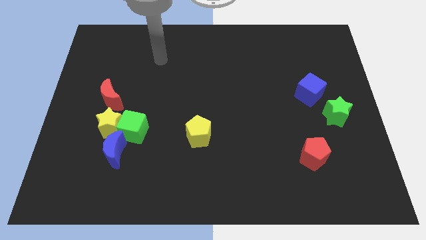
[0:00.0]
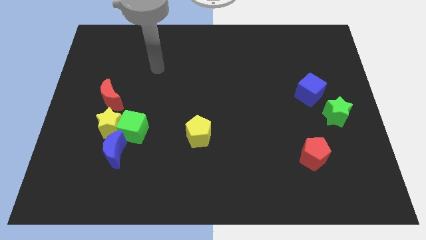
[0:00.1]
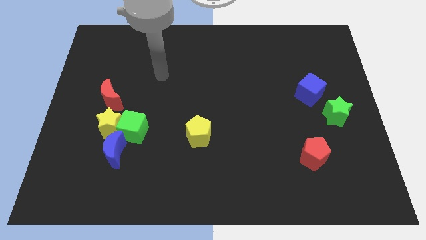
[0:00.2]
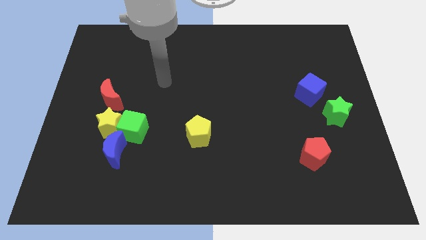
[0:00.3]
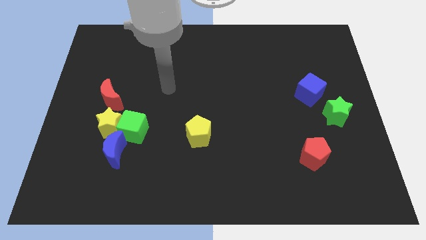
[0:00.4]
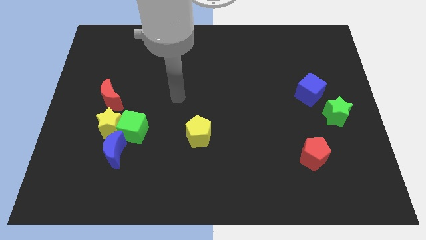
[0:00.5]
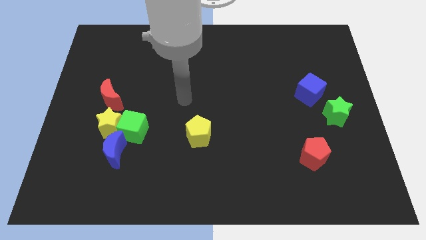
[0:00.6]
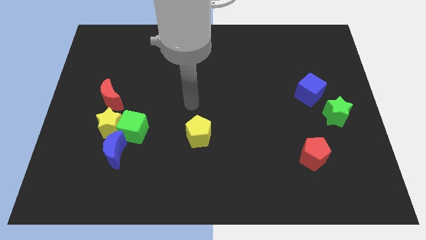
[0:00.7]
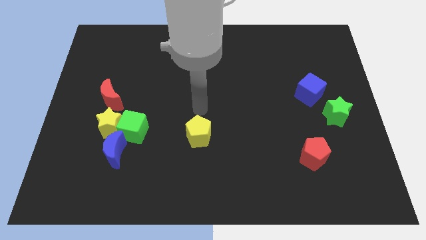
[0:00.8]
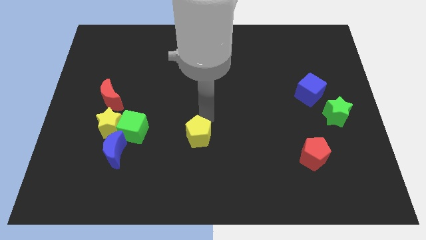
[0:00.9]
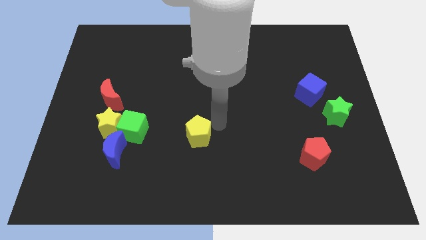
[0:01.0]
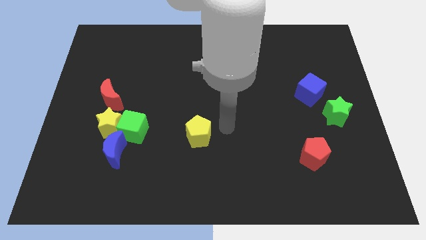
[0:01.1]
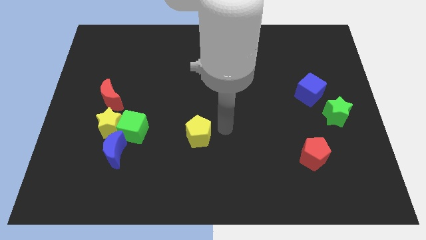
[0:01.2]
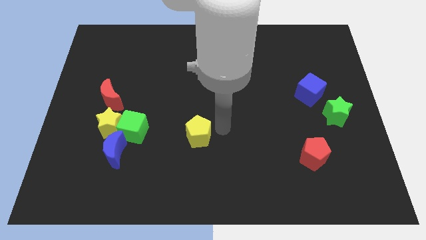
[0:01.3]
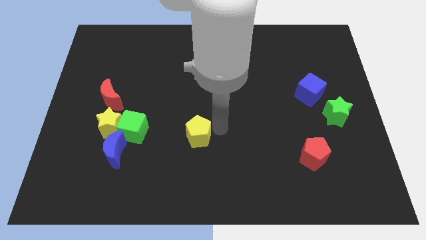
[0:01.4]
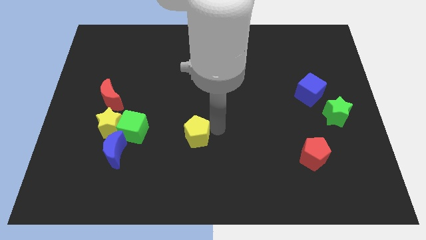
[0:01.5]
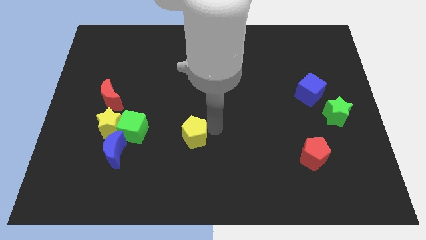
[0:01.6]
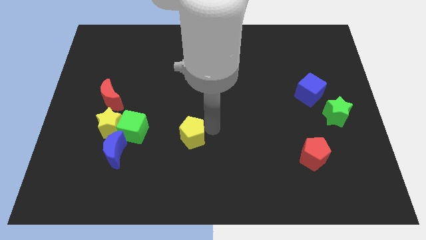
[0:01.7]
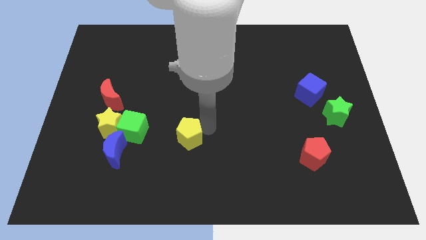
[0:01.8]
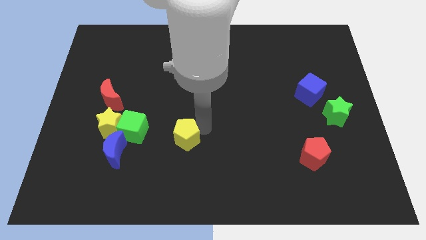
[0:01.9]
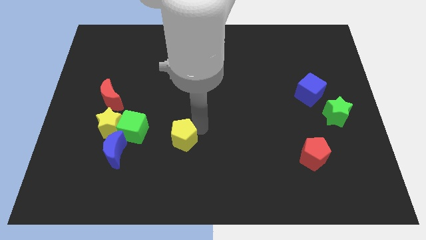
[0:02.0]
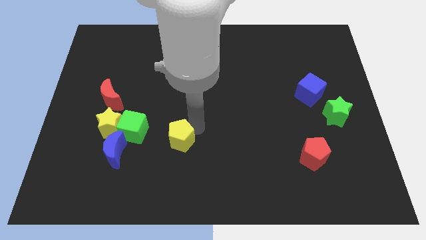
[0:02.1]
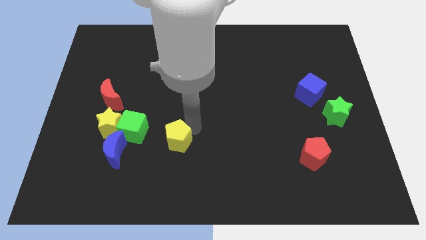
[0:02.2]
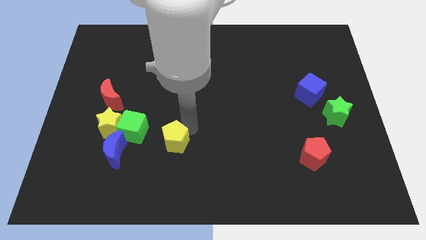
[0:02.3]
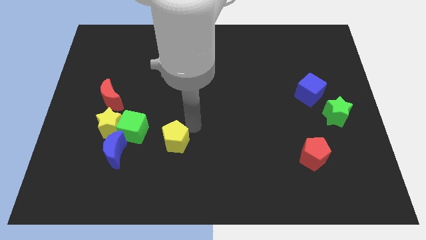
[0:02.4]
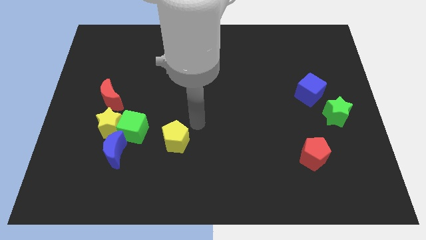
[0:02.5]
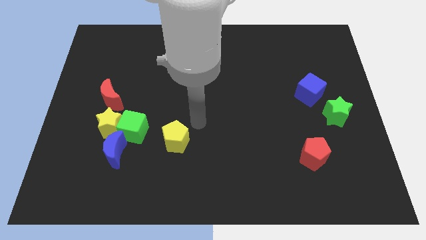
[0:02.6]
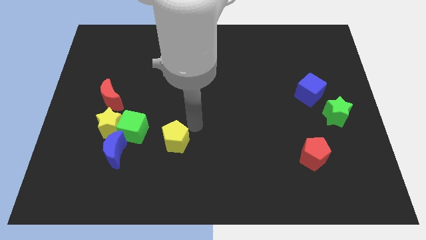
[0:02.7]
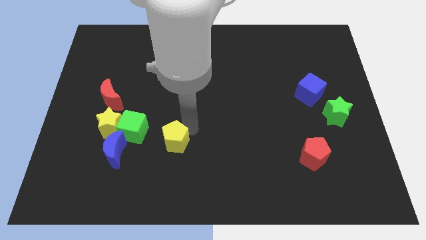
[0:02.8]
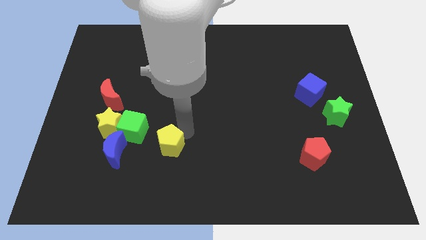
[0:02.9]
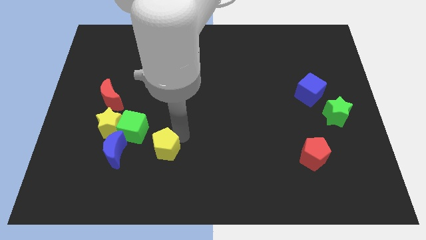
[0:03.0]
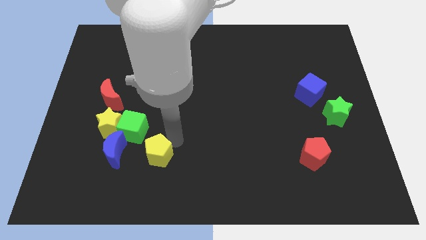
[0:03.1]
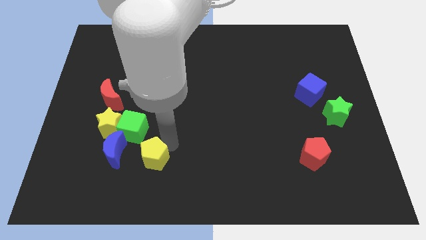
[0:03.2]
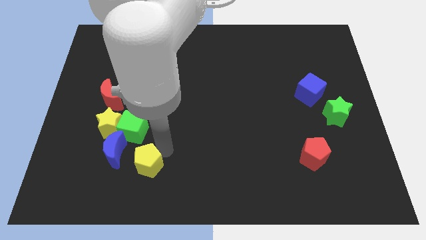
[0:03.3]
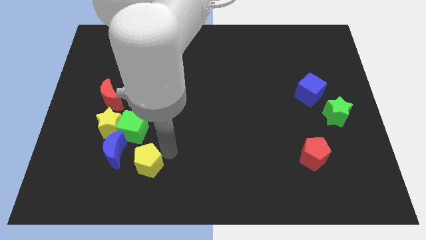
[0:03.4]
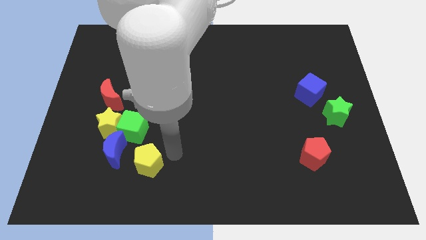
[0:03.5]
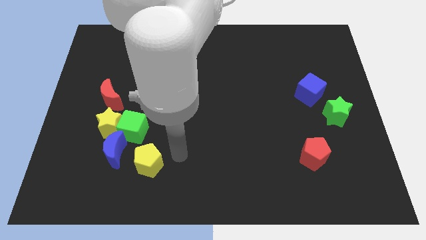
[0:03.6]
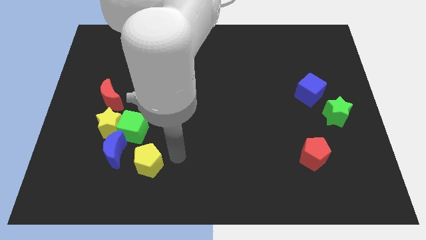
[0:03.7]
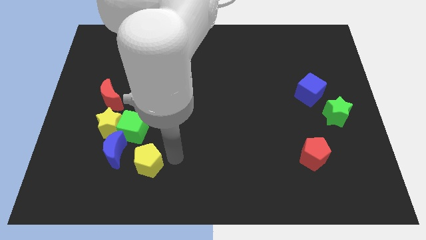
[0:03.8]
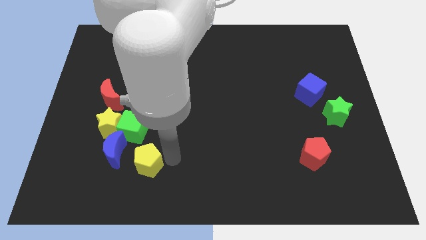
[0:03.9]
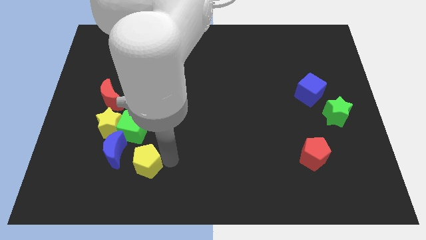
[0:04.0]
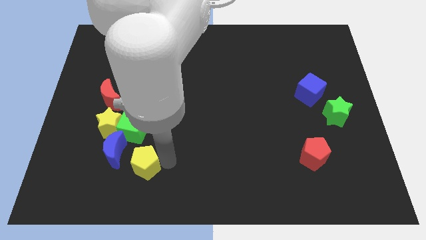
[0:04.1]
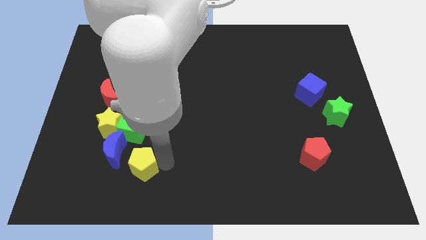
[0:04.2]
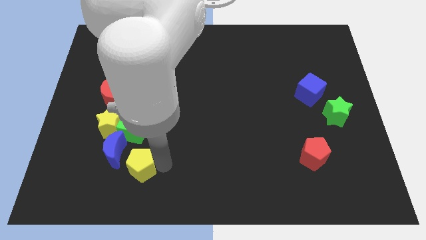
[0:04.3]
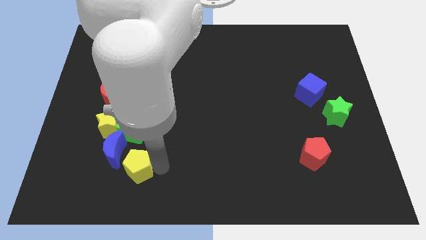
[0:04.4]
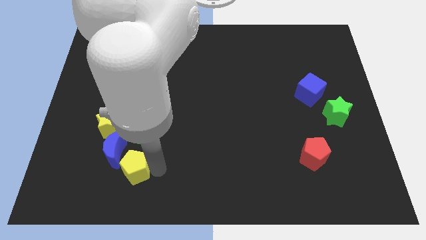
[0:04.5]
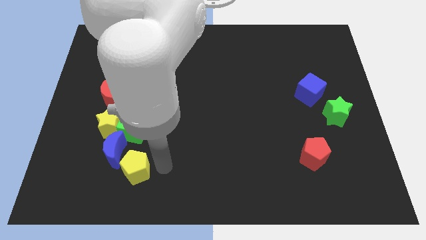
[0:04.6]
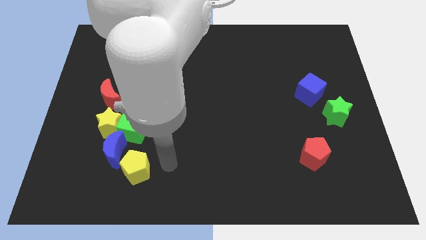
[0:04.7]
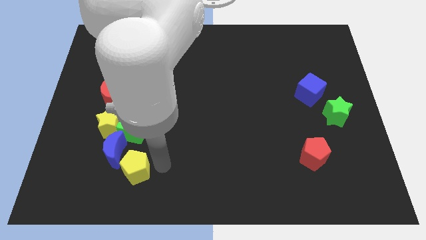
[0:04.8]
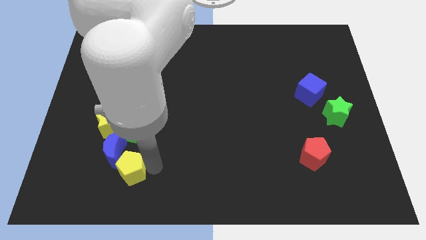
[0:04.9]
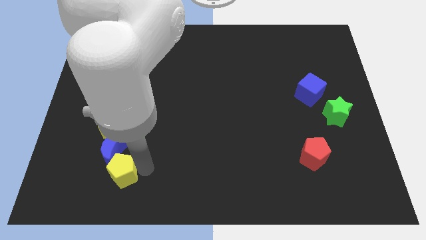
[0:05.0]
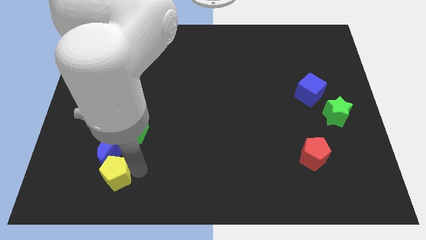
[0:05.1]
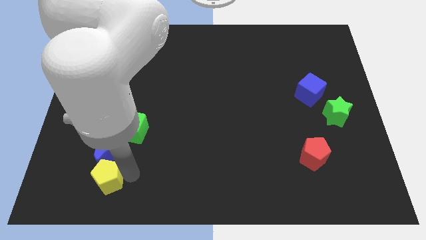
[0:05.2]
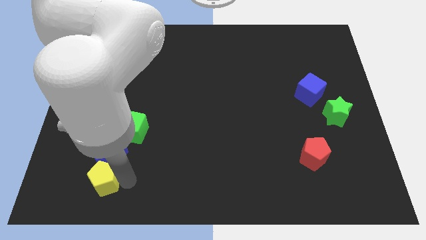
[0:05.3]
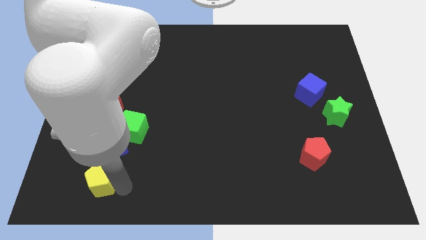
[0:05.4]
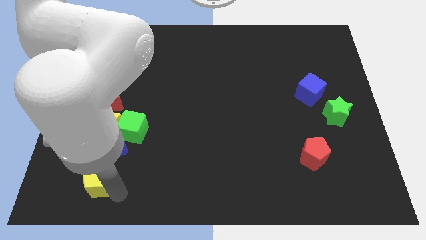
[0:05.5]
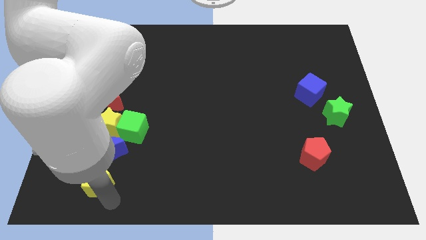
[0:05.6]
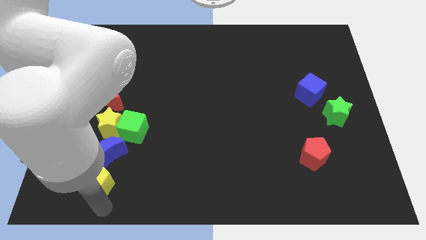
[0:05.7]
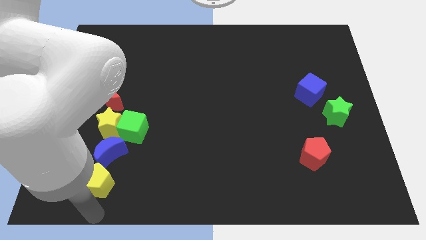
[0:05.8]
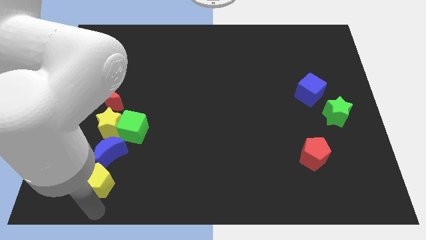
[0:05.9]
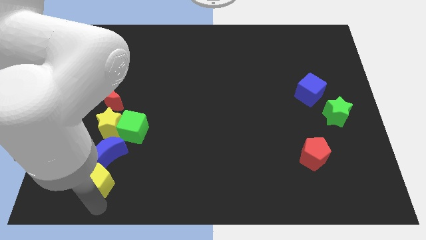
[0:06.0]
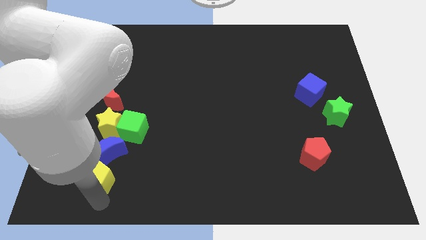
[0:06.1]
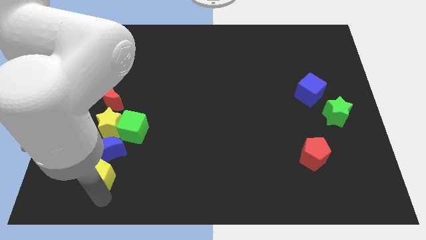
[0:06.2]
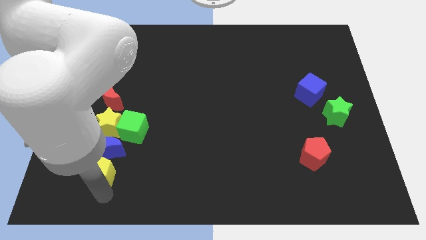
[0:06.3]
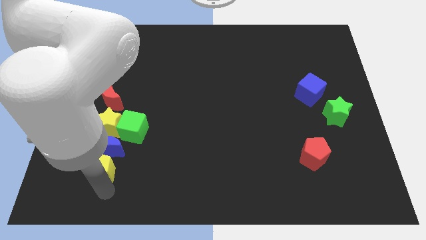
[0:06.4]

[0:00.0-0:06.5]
move the yellow pentagon diagonally down and to the left of the green cube
